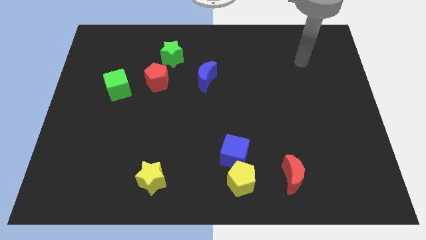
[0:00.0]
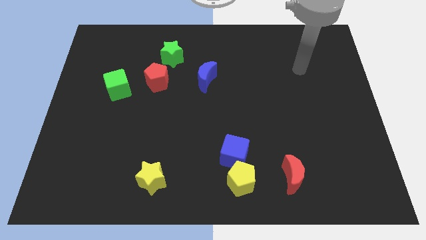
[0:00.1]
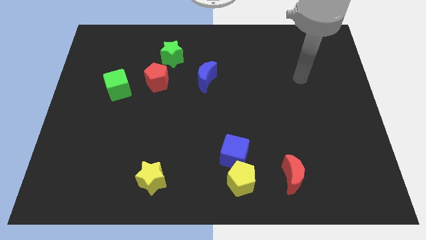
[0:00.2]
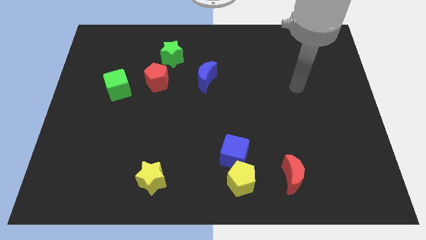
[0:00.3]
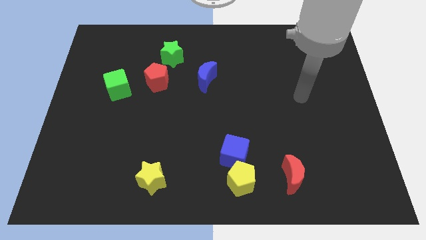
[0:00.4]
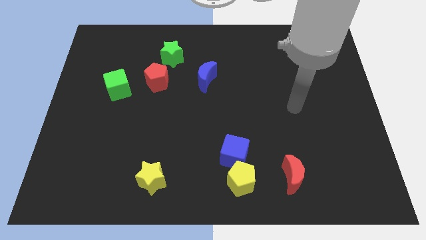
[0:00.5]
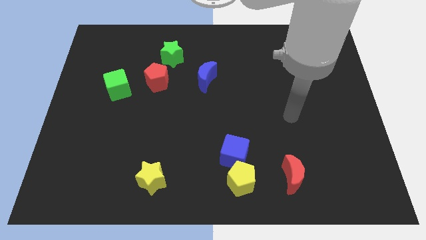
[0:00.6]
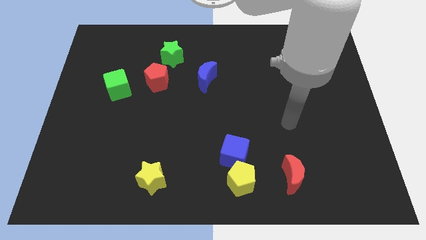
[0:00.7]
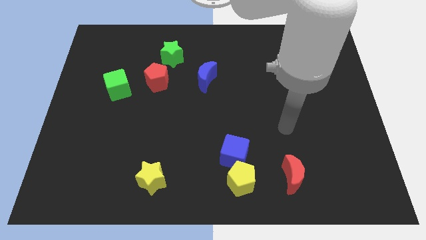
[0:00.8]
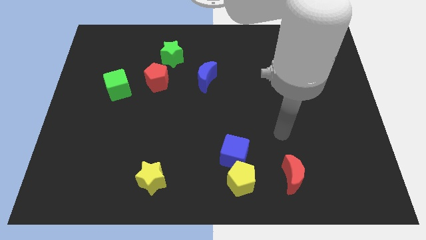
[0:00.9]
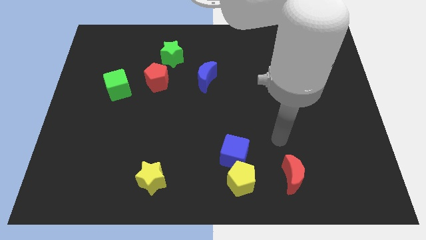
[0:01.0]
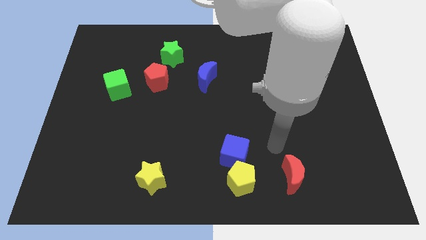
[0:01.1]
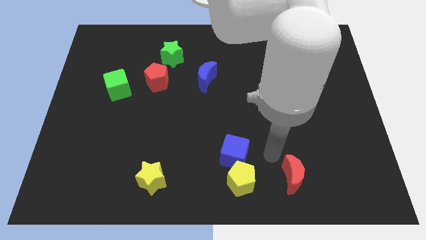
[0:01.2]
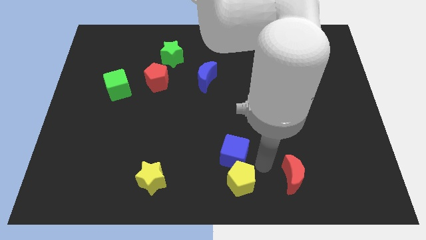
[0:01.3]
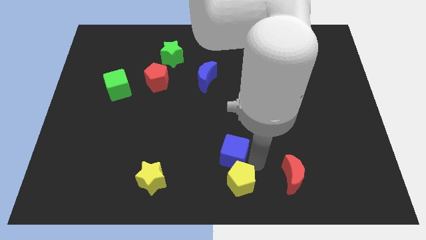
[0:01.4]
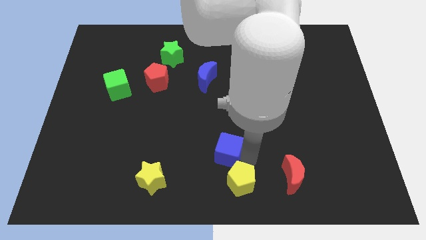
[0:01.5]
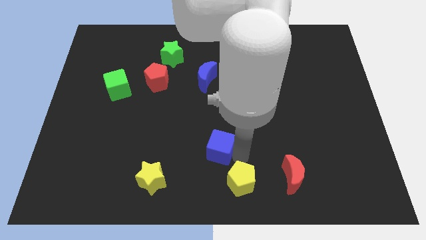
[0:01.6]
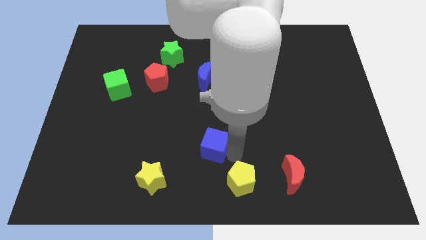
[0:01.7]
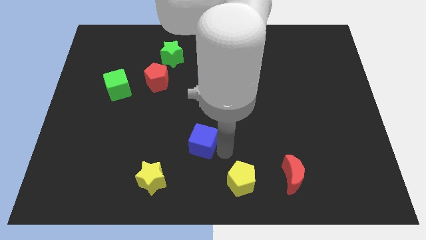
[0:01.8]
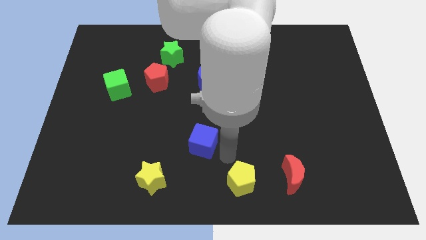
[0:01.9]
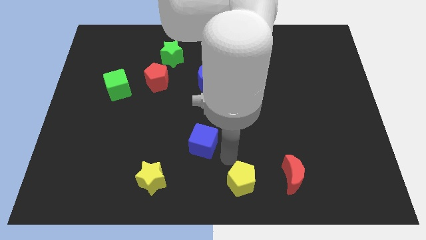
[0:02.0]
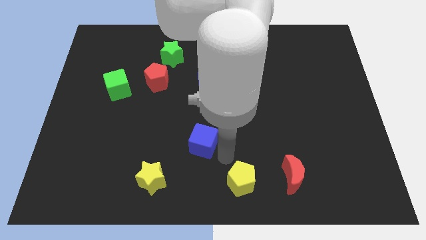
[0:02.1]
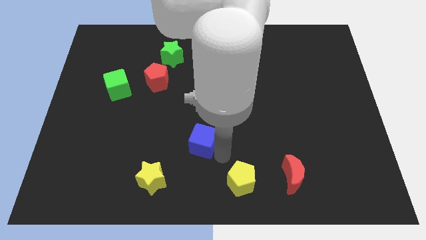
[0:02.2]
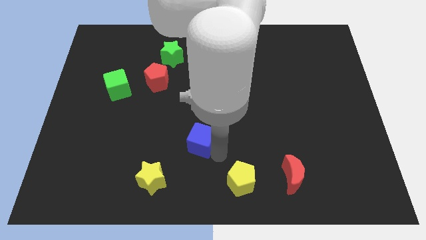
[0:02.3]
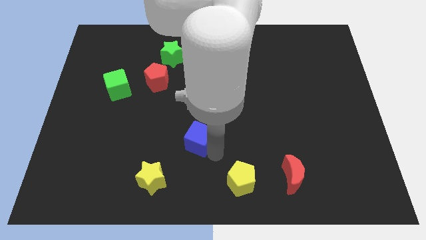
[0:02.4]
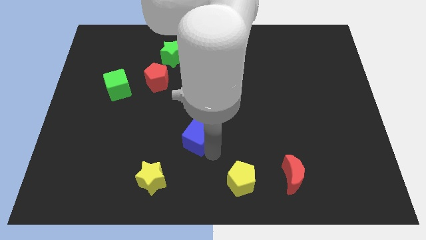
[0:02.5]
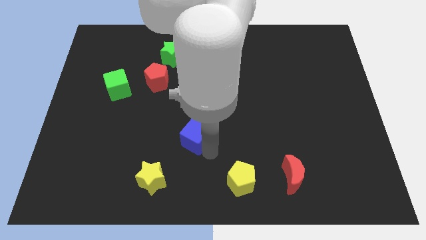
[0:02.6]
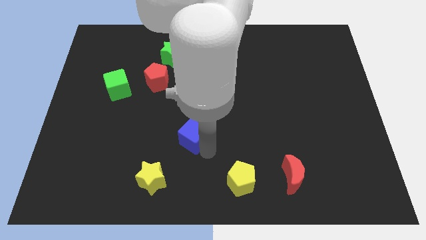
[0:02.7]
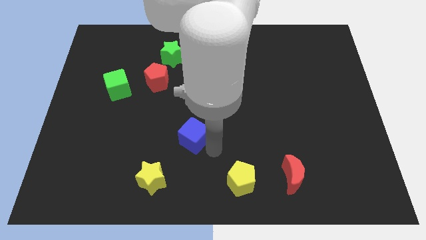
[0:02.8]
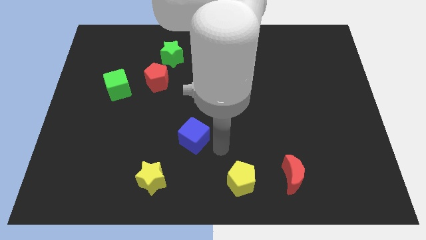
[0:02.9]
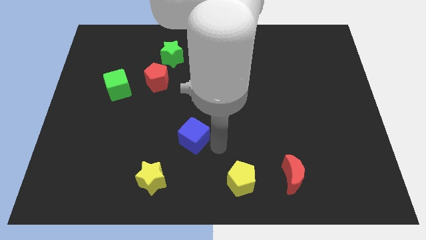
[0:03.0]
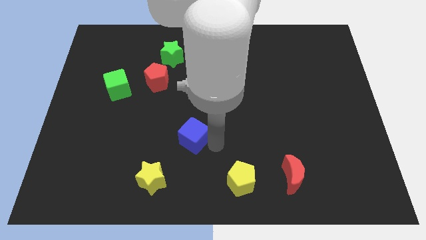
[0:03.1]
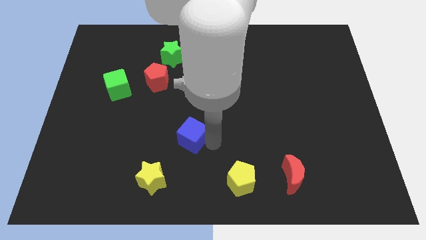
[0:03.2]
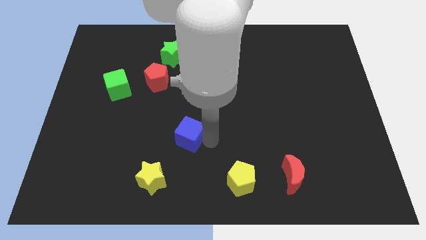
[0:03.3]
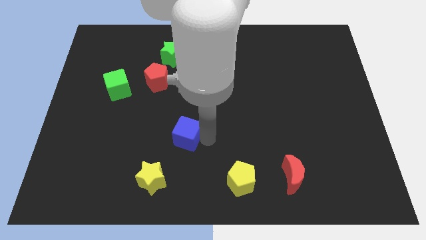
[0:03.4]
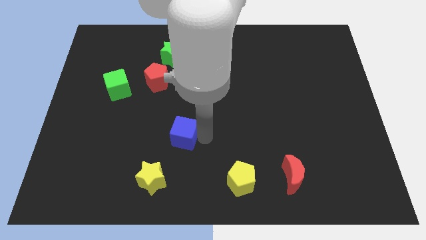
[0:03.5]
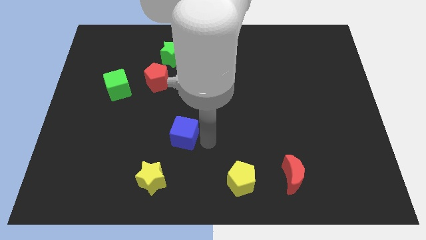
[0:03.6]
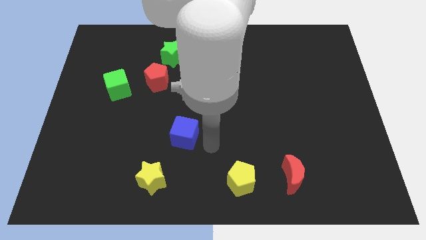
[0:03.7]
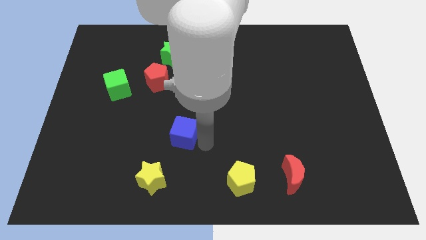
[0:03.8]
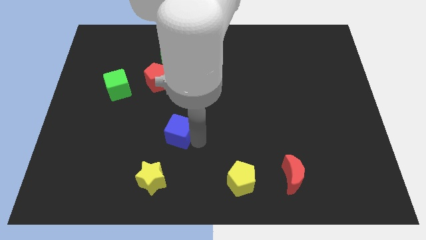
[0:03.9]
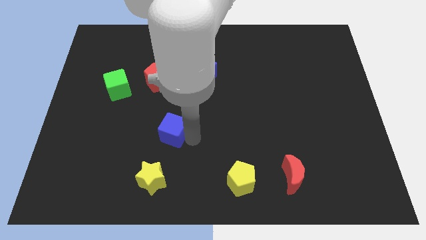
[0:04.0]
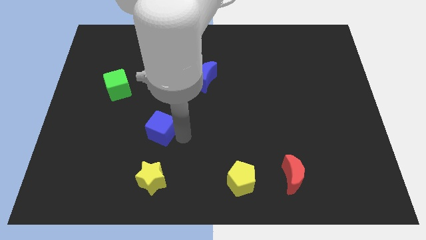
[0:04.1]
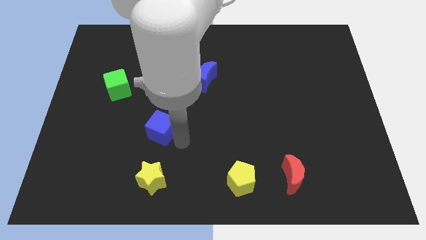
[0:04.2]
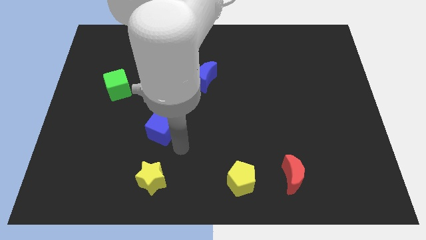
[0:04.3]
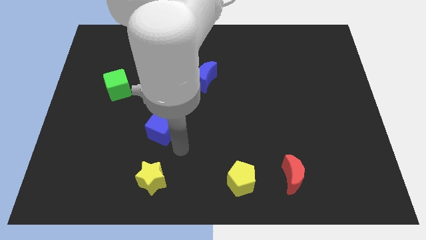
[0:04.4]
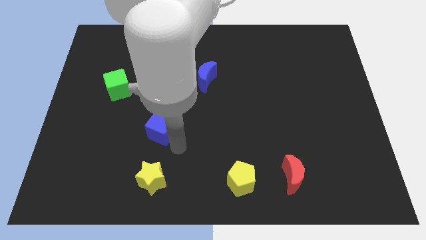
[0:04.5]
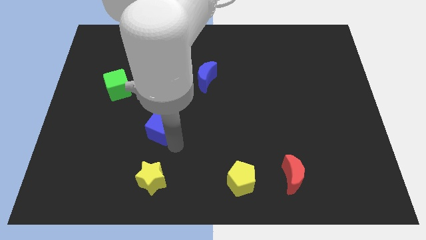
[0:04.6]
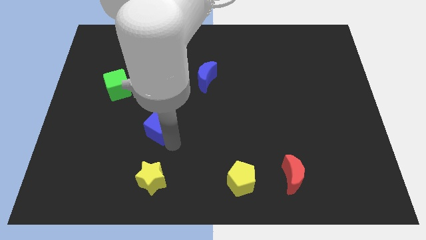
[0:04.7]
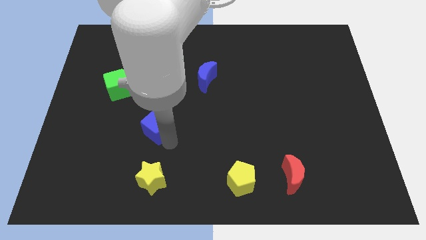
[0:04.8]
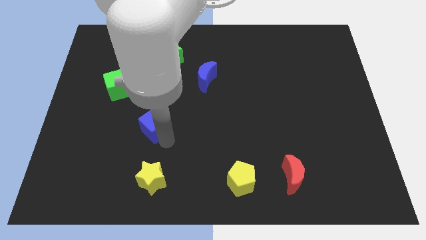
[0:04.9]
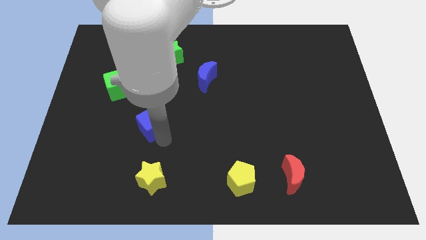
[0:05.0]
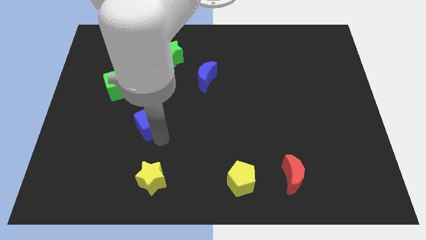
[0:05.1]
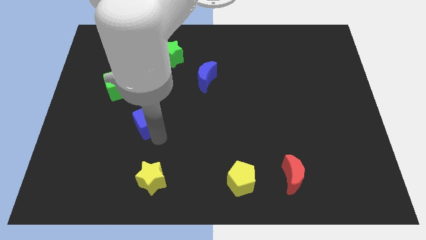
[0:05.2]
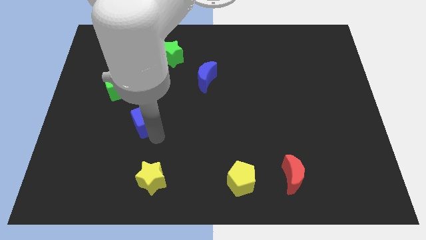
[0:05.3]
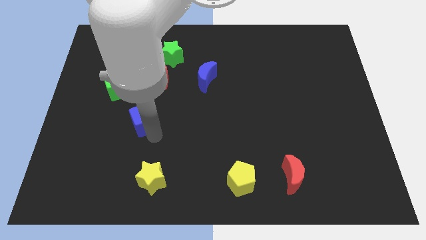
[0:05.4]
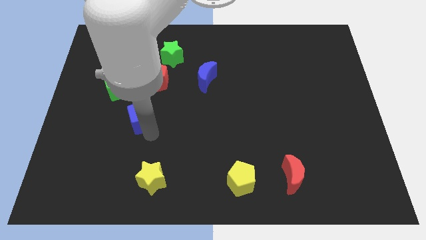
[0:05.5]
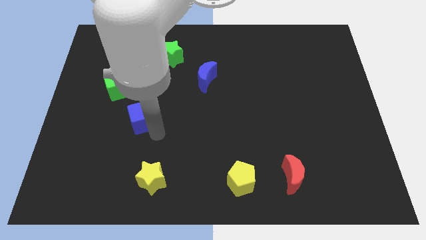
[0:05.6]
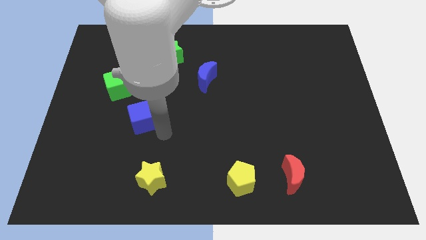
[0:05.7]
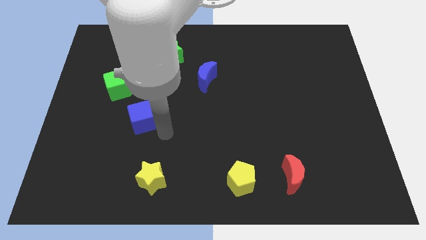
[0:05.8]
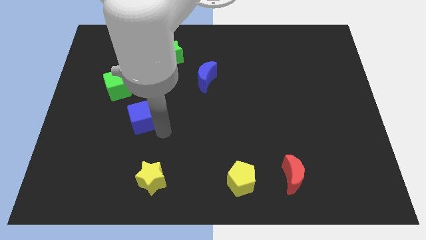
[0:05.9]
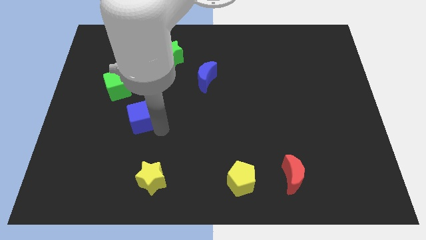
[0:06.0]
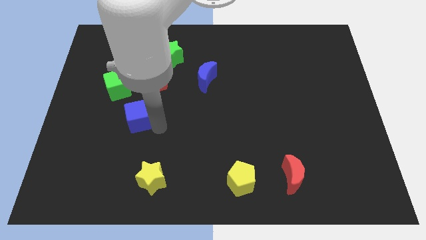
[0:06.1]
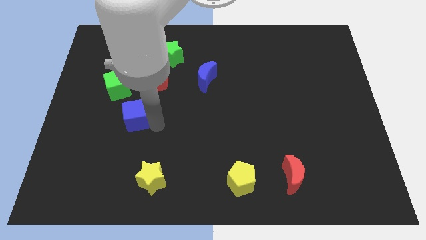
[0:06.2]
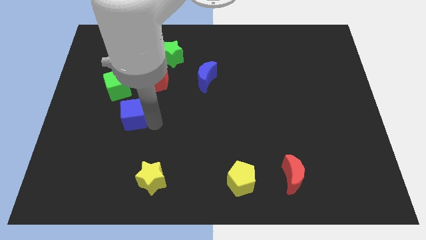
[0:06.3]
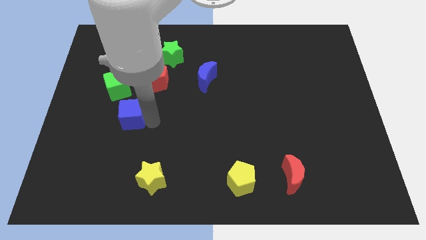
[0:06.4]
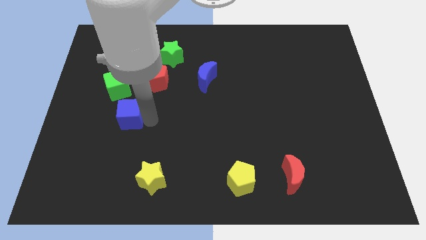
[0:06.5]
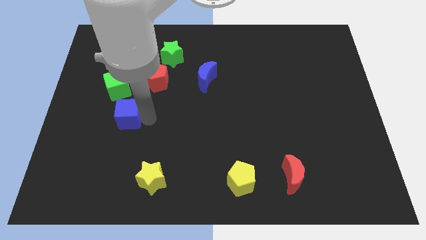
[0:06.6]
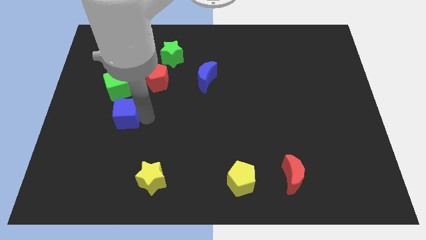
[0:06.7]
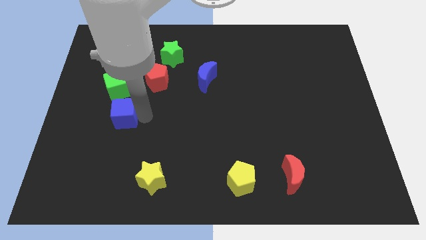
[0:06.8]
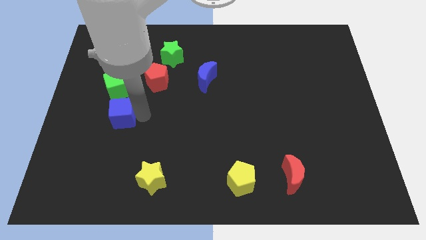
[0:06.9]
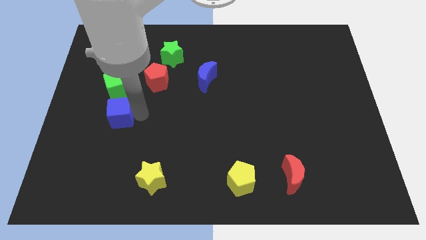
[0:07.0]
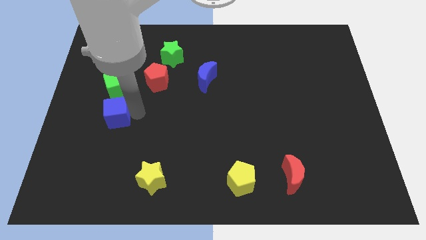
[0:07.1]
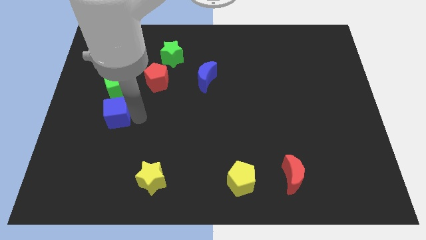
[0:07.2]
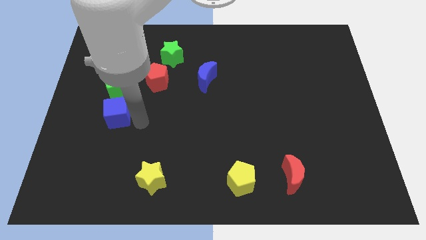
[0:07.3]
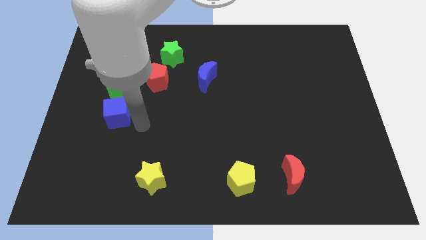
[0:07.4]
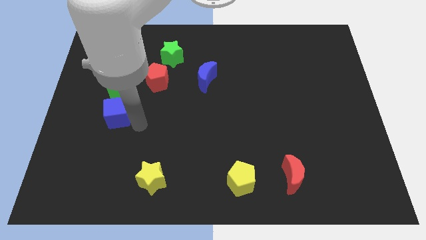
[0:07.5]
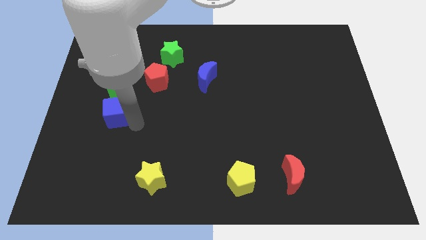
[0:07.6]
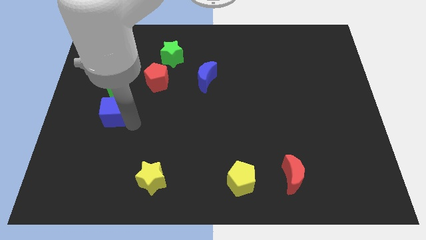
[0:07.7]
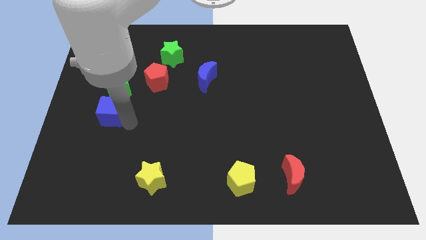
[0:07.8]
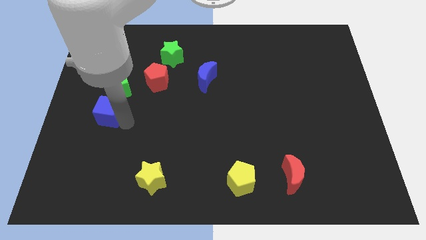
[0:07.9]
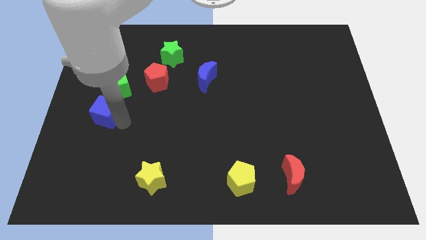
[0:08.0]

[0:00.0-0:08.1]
move the blue cube to the bottom left side of the green cube

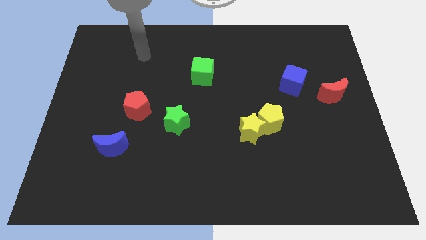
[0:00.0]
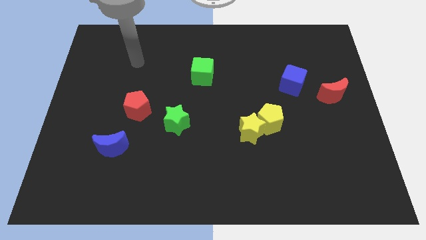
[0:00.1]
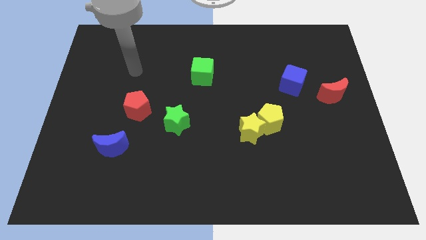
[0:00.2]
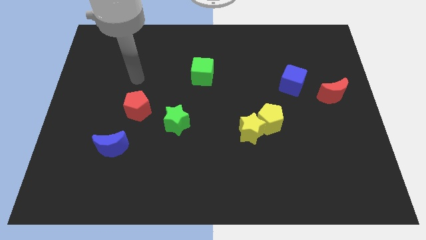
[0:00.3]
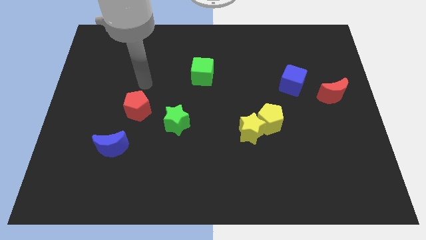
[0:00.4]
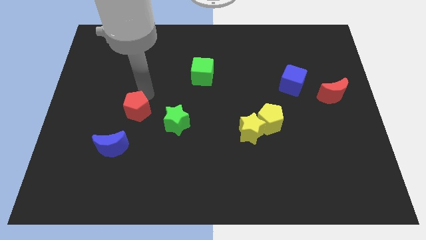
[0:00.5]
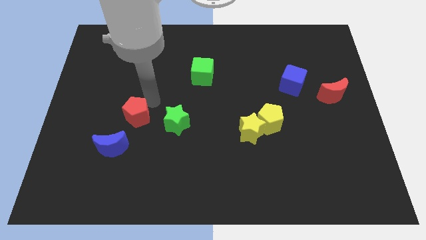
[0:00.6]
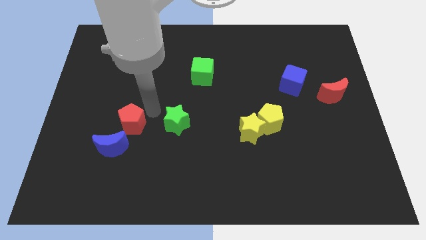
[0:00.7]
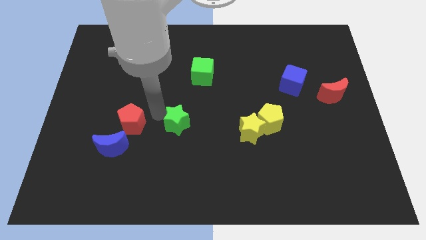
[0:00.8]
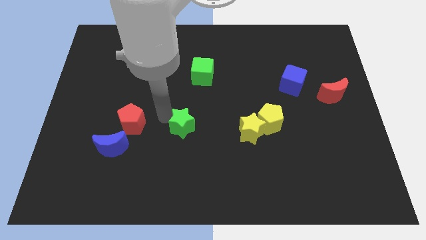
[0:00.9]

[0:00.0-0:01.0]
put the green star just left of the yellow star
